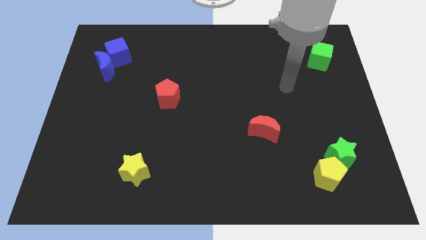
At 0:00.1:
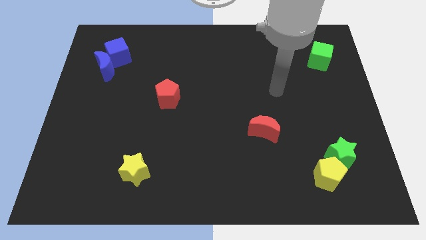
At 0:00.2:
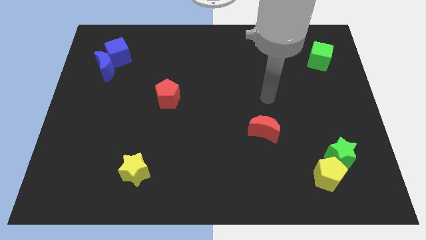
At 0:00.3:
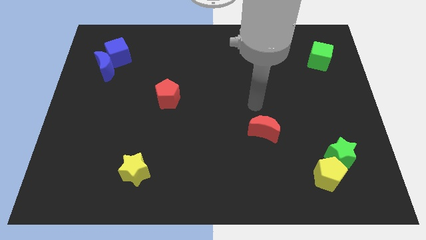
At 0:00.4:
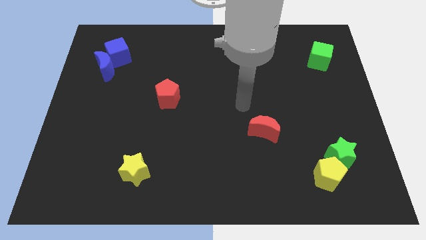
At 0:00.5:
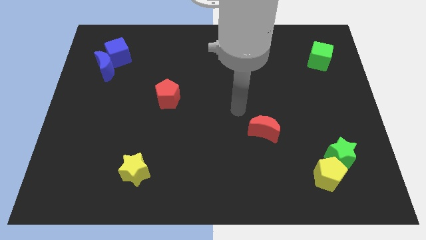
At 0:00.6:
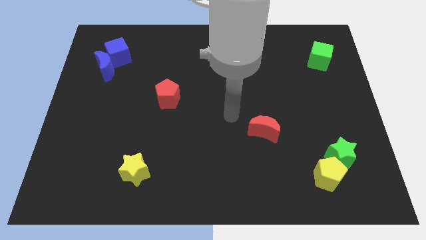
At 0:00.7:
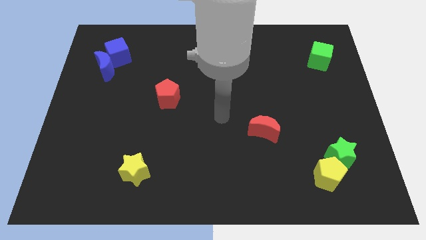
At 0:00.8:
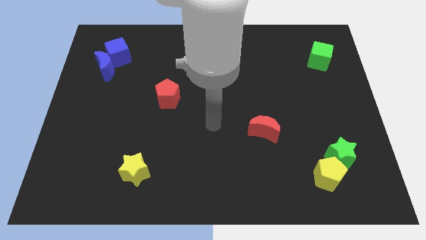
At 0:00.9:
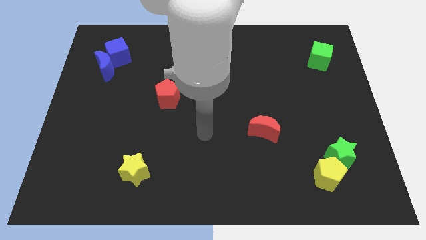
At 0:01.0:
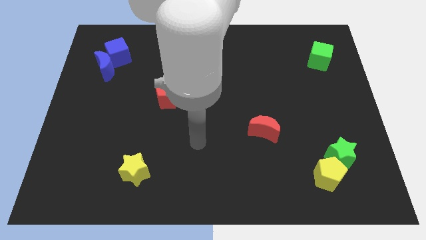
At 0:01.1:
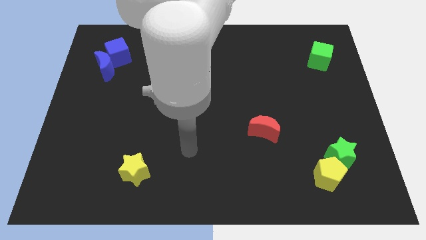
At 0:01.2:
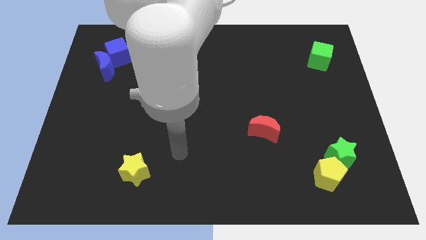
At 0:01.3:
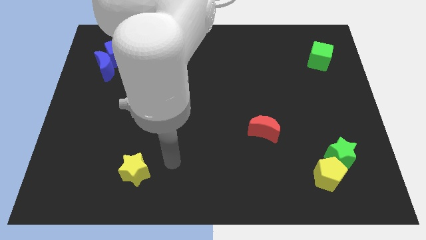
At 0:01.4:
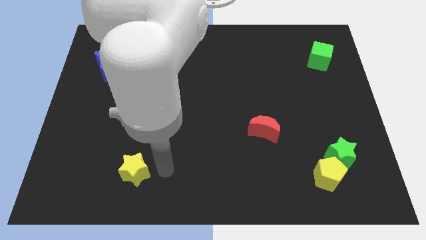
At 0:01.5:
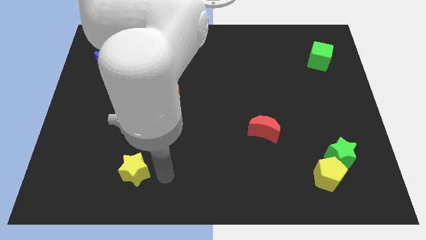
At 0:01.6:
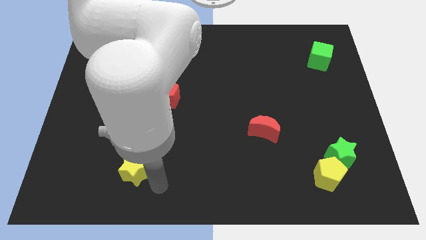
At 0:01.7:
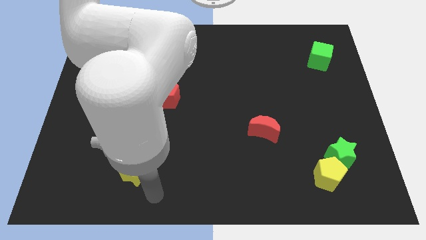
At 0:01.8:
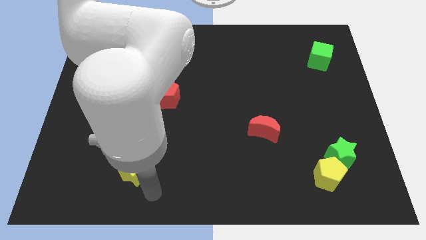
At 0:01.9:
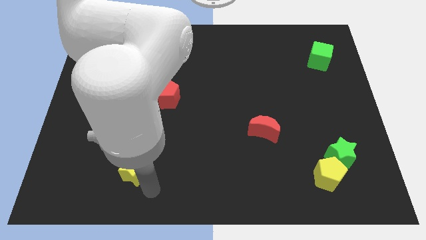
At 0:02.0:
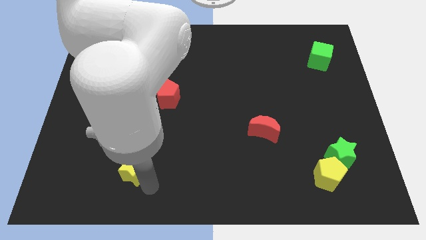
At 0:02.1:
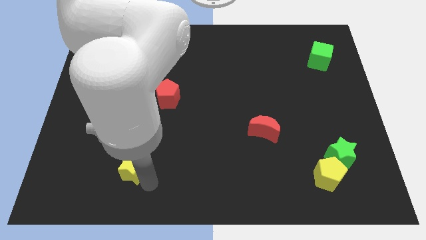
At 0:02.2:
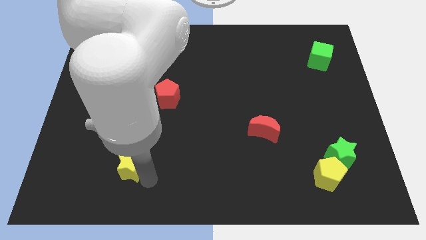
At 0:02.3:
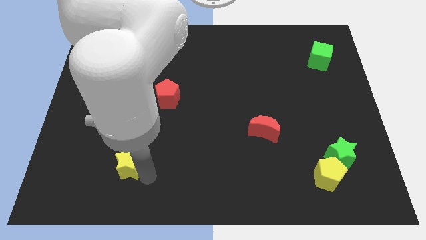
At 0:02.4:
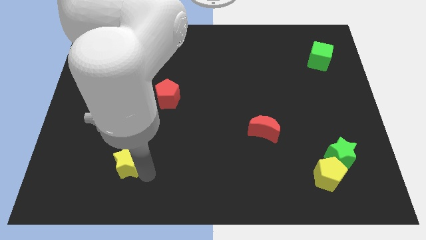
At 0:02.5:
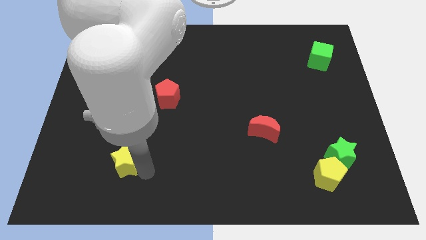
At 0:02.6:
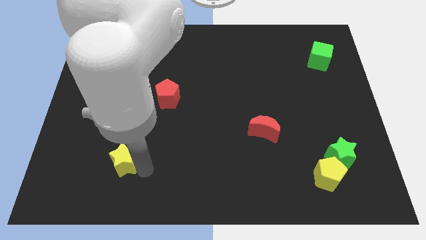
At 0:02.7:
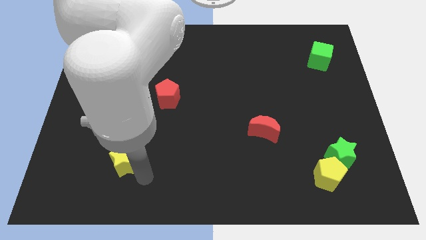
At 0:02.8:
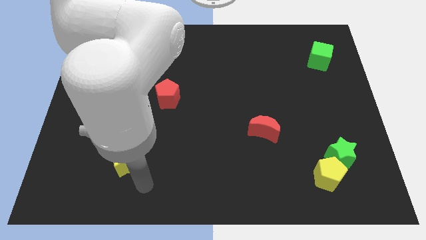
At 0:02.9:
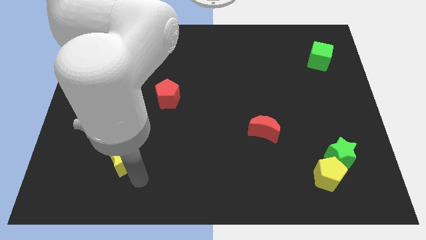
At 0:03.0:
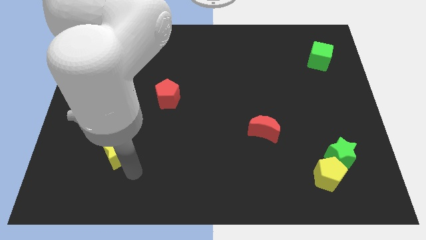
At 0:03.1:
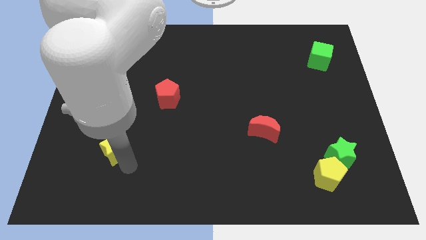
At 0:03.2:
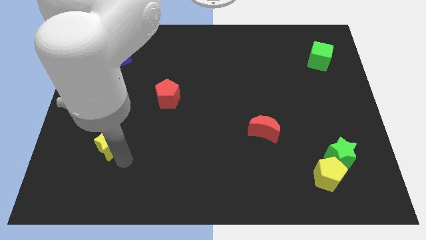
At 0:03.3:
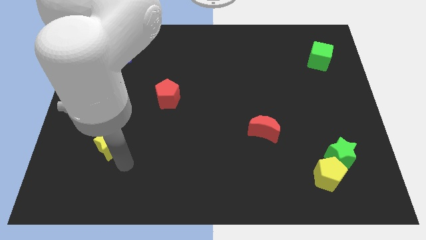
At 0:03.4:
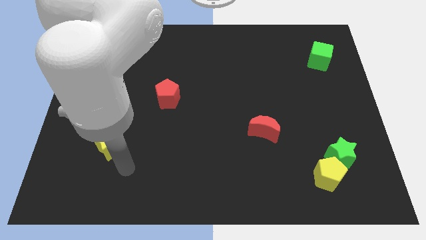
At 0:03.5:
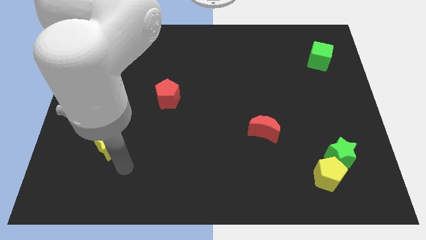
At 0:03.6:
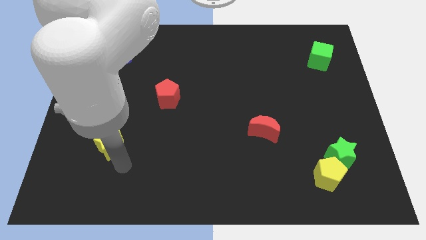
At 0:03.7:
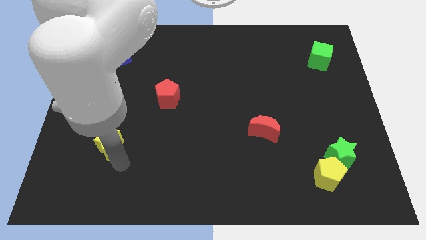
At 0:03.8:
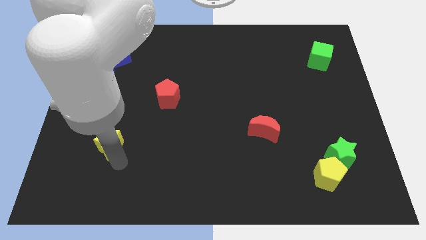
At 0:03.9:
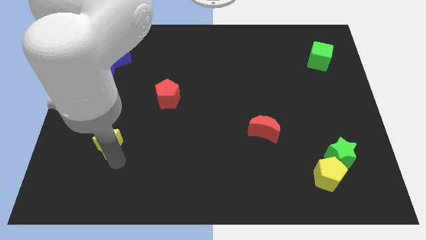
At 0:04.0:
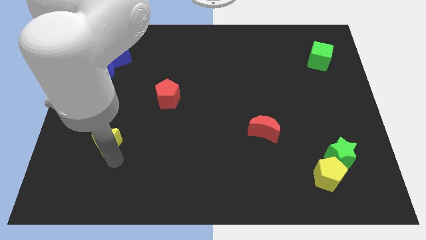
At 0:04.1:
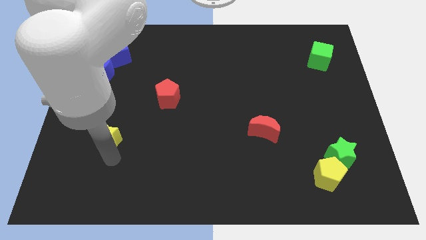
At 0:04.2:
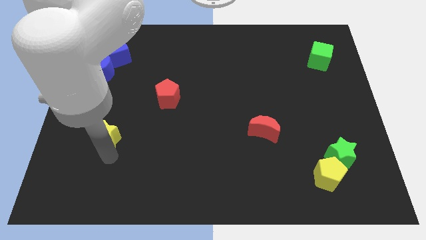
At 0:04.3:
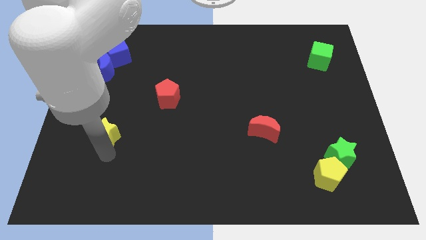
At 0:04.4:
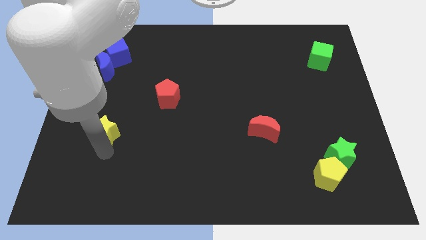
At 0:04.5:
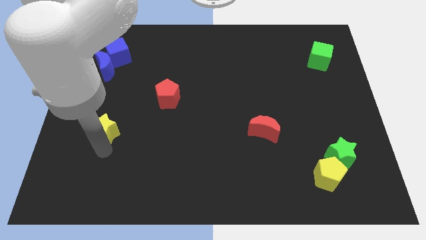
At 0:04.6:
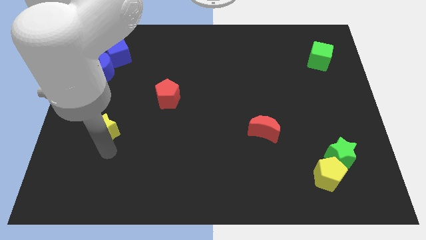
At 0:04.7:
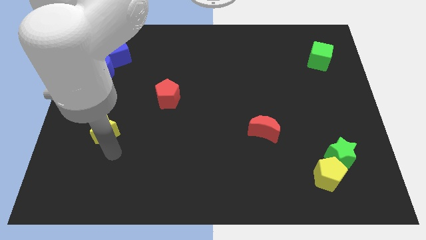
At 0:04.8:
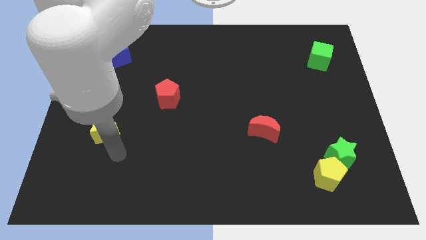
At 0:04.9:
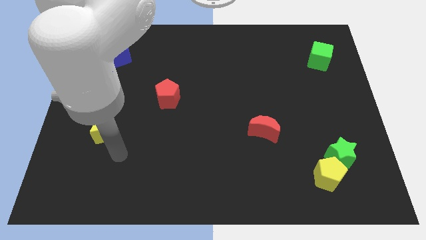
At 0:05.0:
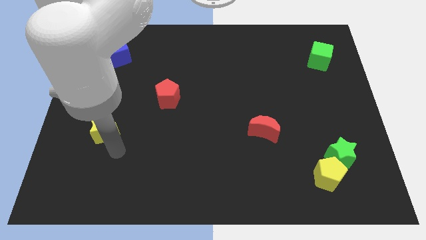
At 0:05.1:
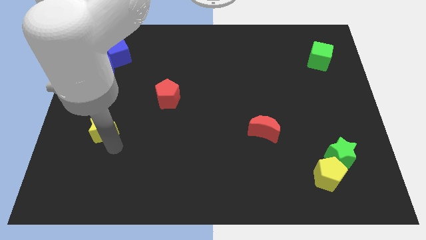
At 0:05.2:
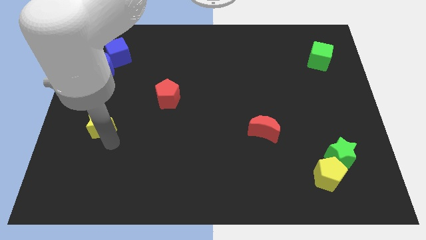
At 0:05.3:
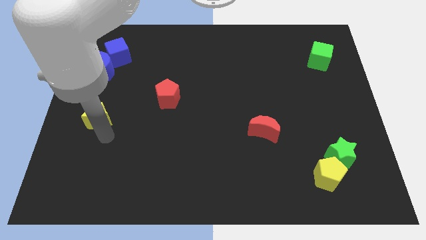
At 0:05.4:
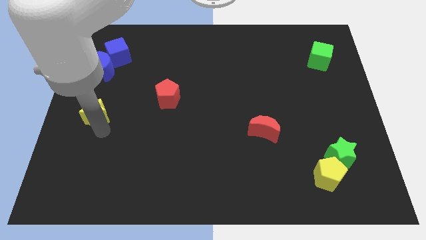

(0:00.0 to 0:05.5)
push the yellow star below the blue moon

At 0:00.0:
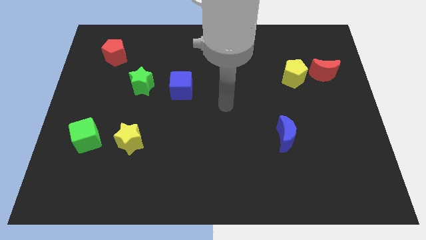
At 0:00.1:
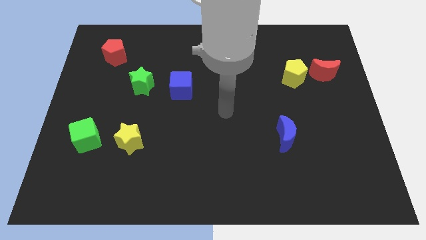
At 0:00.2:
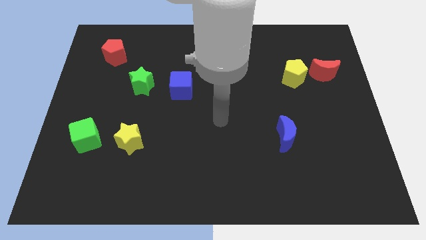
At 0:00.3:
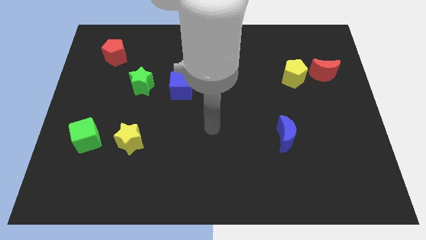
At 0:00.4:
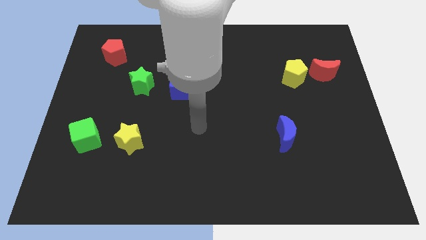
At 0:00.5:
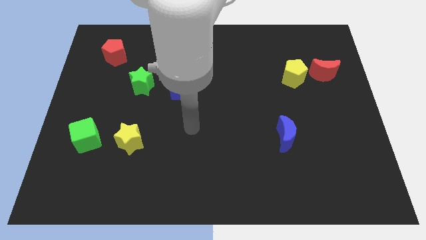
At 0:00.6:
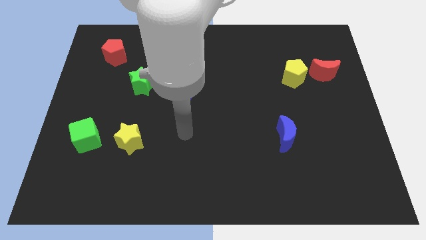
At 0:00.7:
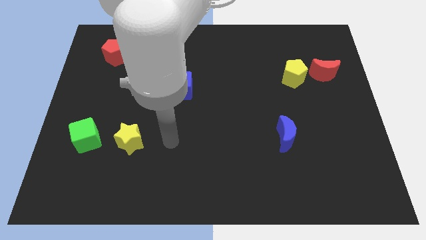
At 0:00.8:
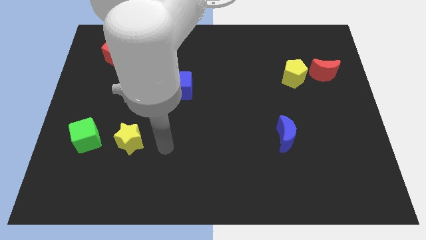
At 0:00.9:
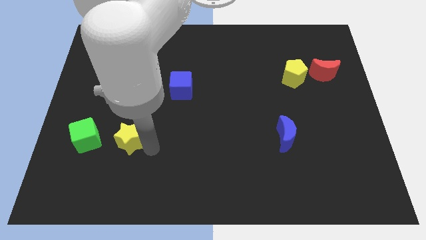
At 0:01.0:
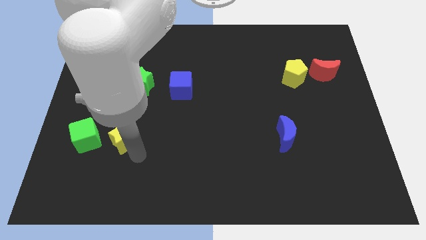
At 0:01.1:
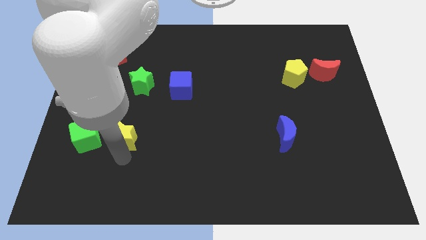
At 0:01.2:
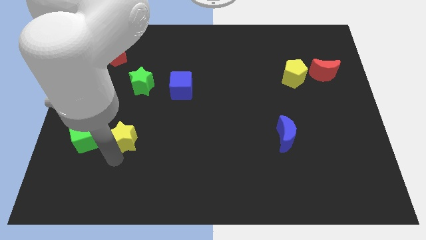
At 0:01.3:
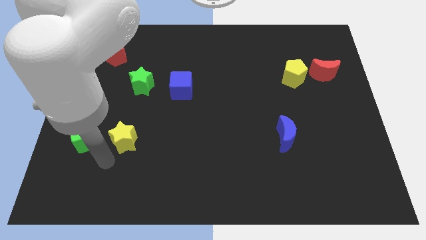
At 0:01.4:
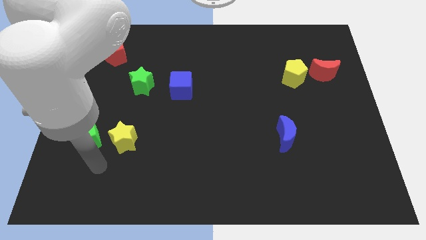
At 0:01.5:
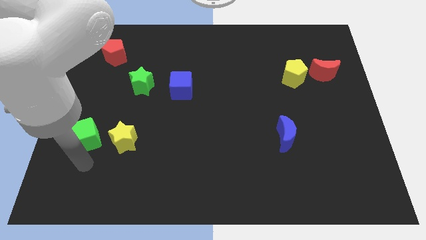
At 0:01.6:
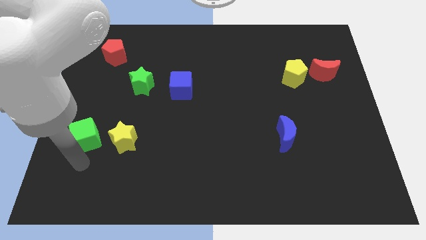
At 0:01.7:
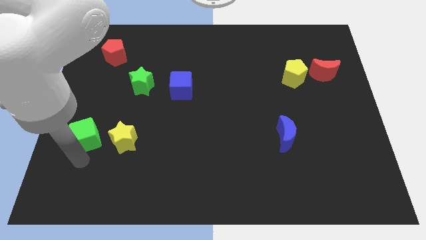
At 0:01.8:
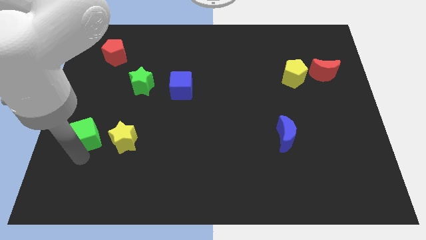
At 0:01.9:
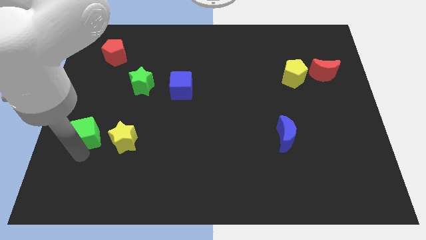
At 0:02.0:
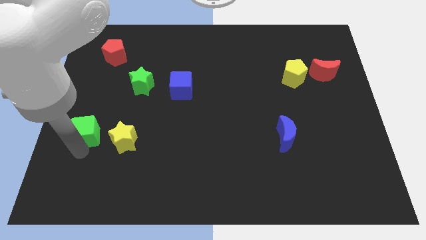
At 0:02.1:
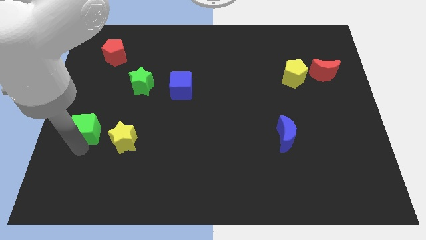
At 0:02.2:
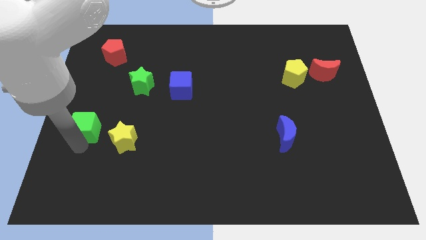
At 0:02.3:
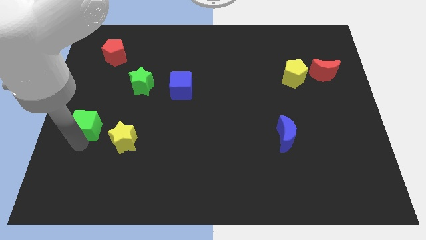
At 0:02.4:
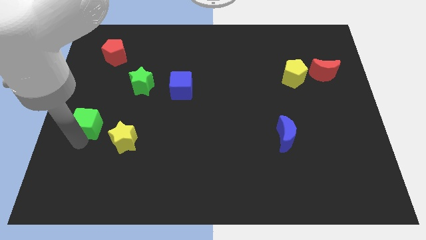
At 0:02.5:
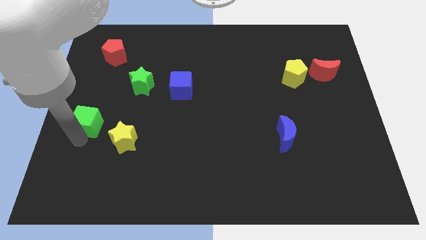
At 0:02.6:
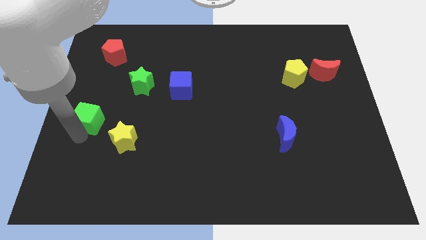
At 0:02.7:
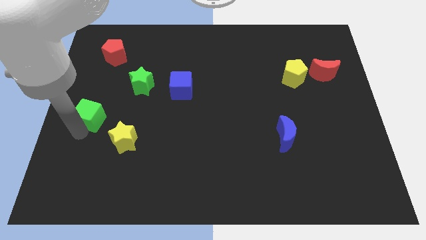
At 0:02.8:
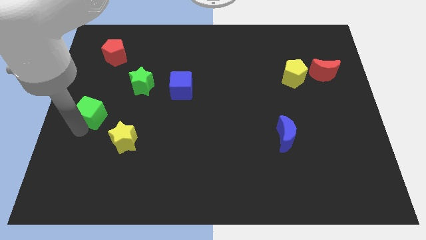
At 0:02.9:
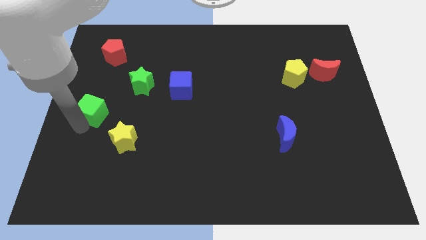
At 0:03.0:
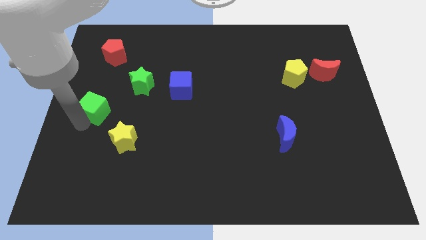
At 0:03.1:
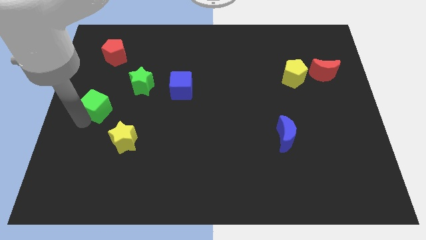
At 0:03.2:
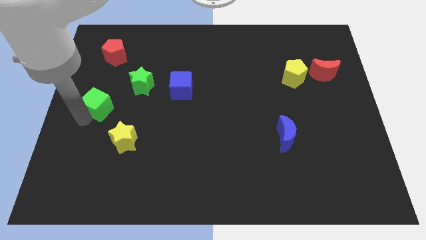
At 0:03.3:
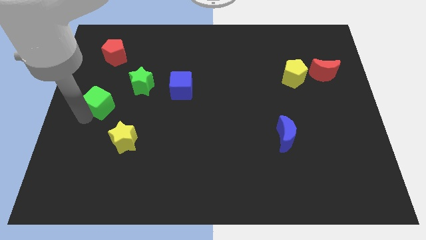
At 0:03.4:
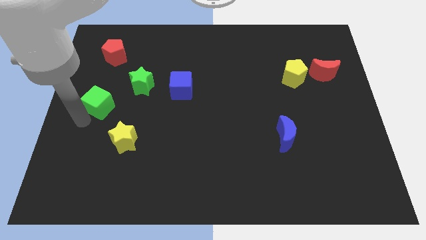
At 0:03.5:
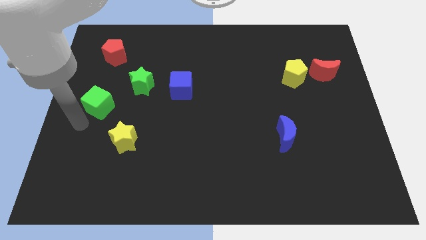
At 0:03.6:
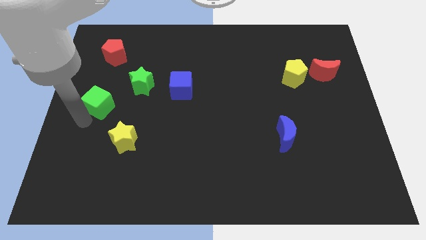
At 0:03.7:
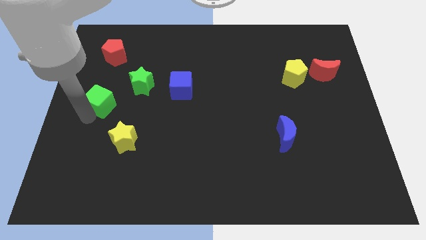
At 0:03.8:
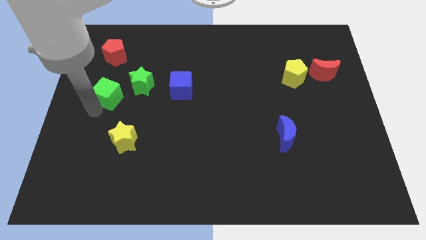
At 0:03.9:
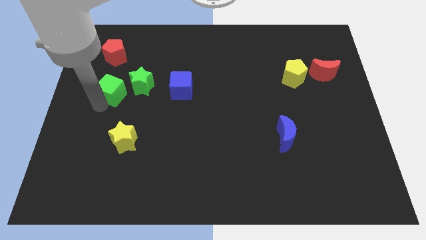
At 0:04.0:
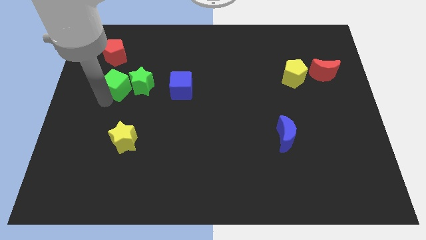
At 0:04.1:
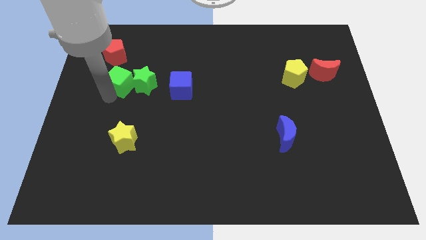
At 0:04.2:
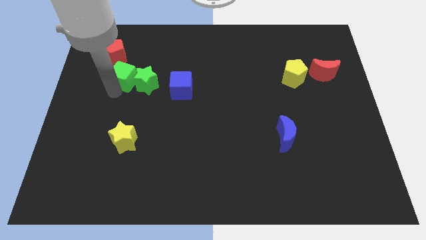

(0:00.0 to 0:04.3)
slide the green cube to the bottom right side of the red pentagon
